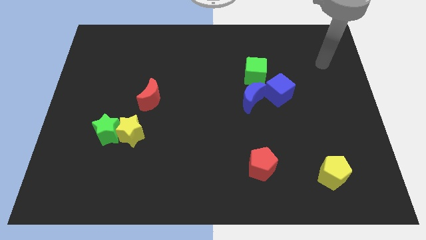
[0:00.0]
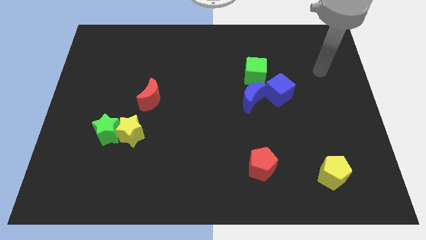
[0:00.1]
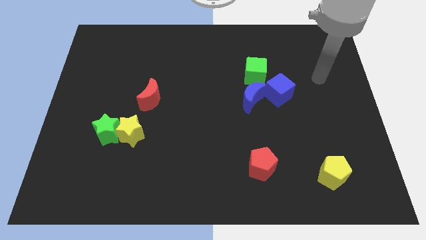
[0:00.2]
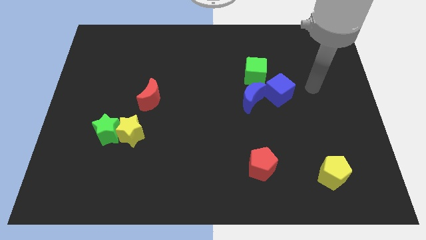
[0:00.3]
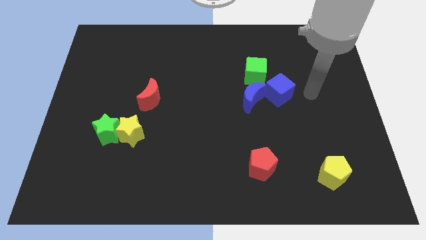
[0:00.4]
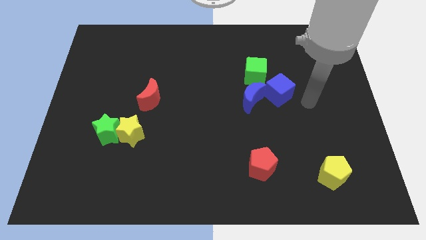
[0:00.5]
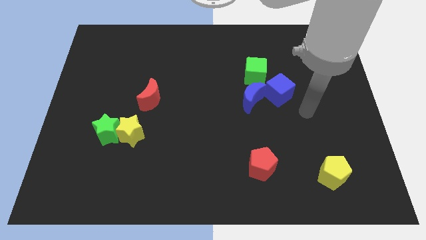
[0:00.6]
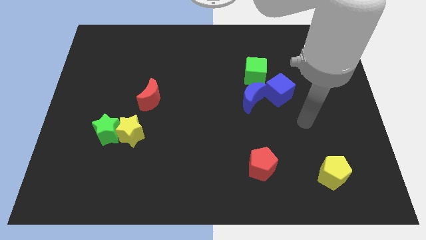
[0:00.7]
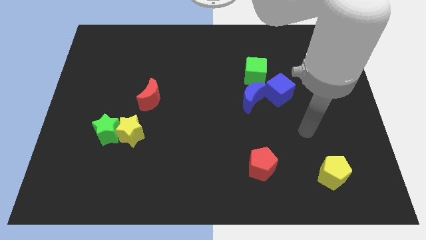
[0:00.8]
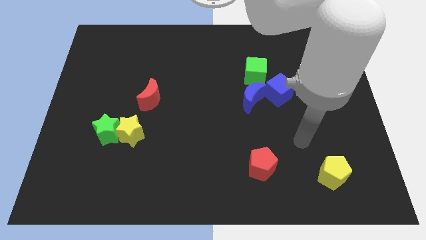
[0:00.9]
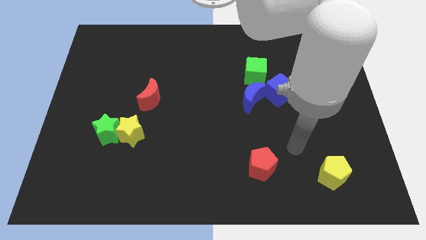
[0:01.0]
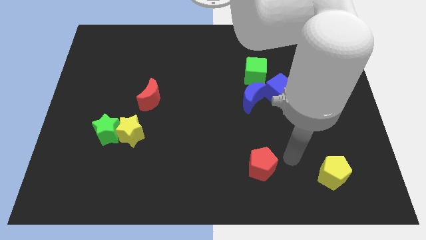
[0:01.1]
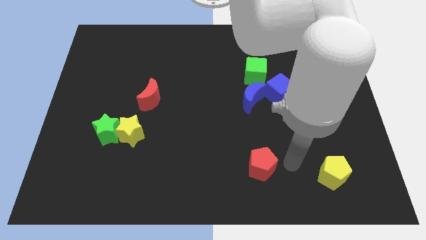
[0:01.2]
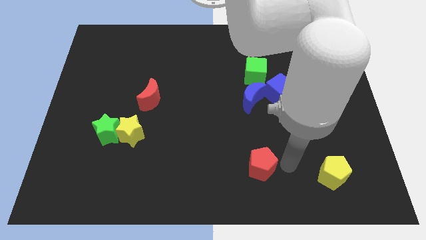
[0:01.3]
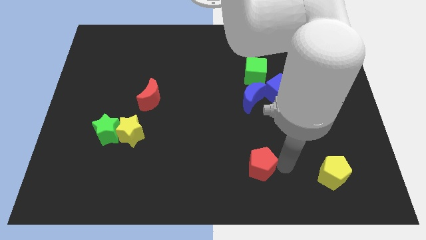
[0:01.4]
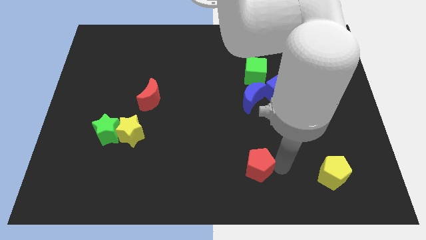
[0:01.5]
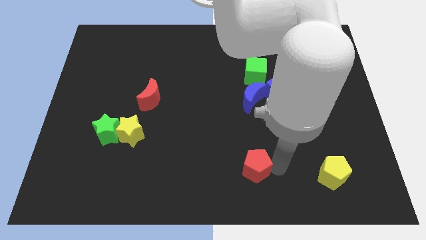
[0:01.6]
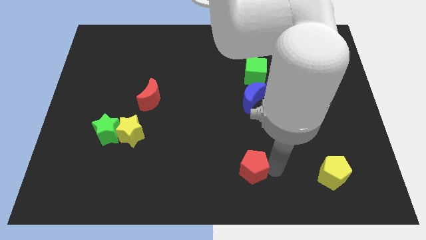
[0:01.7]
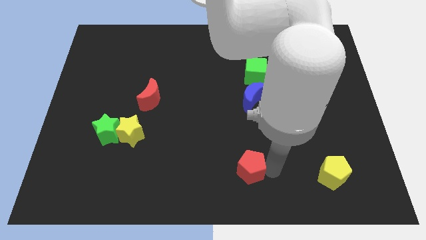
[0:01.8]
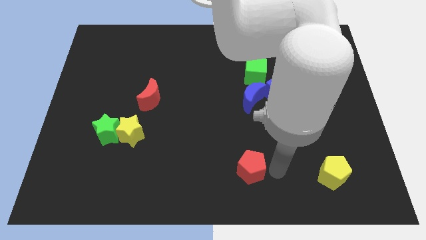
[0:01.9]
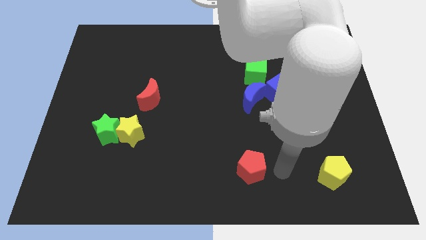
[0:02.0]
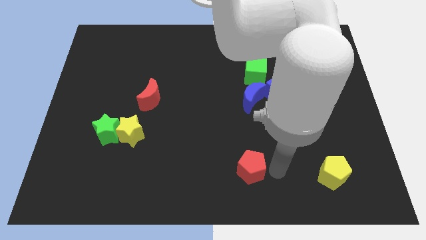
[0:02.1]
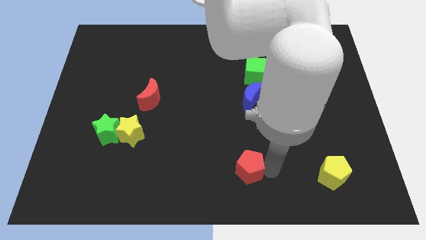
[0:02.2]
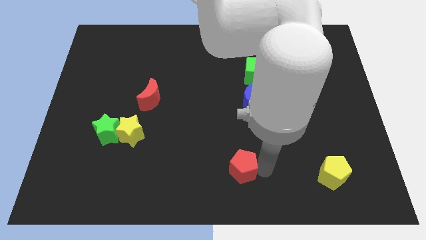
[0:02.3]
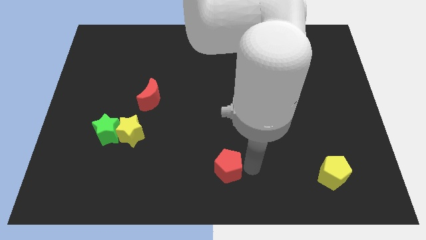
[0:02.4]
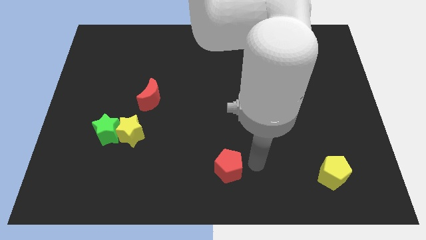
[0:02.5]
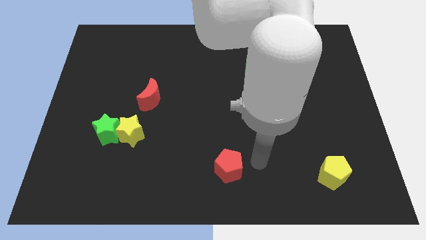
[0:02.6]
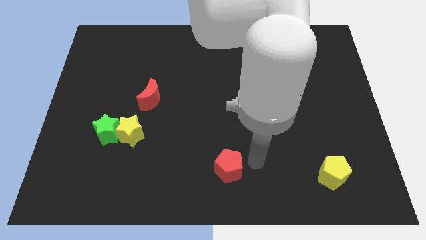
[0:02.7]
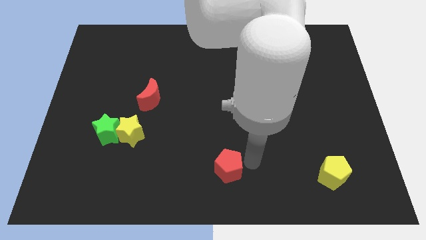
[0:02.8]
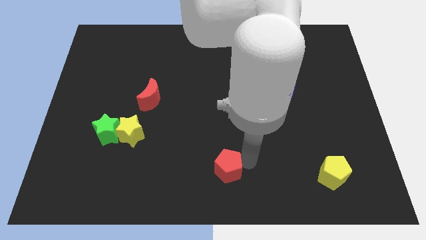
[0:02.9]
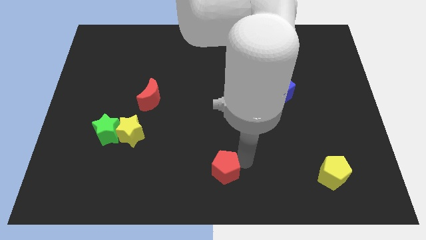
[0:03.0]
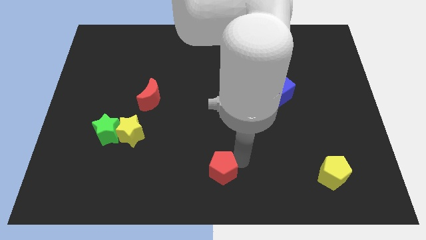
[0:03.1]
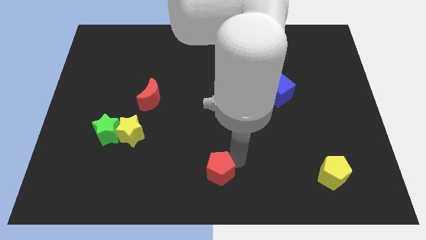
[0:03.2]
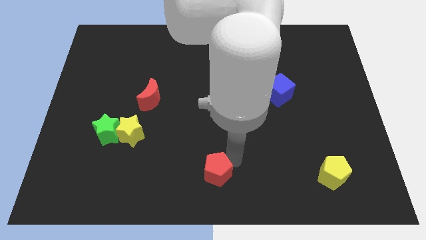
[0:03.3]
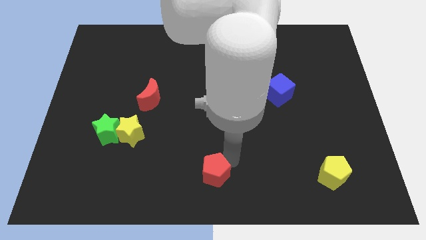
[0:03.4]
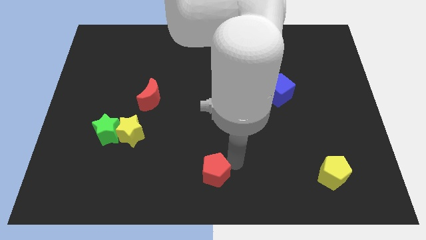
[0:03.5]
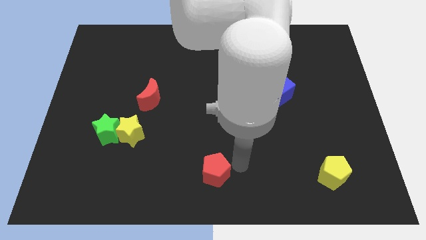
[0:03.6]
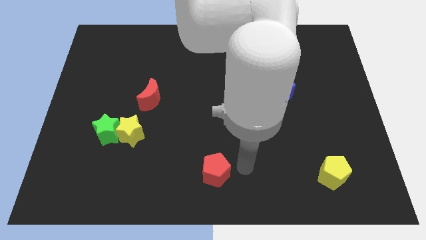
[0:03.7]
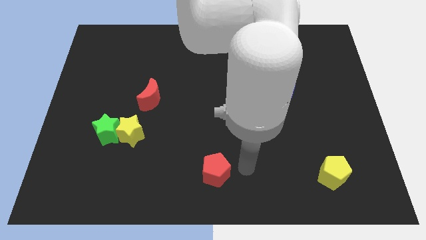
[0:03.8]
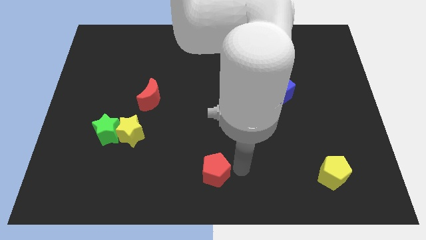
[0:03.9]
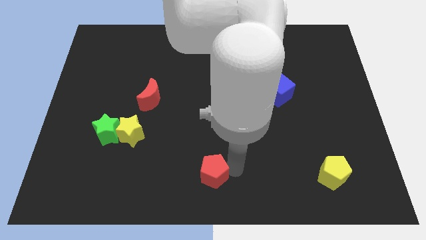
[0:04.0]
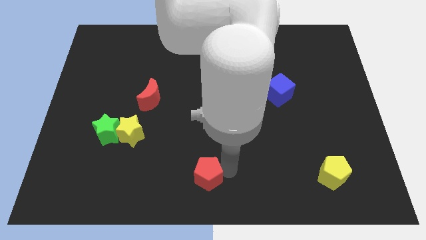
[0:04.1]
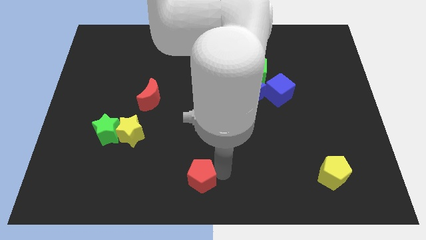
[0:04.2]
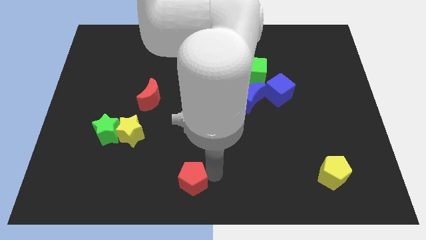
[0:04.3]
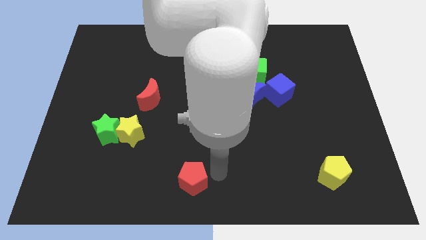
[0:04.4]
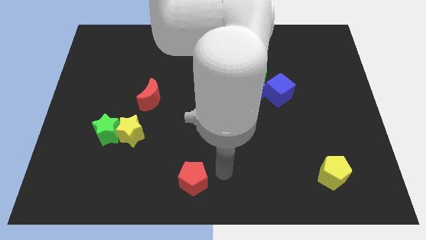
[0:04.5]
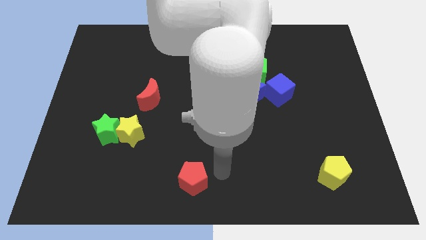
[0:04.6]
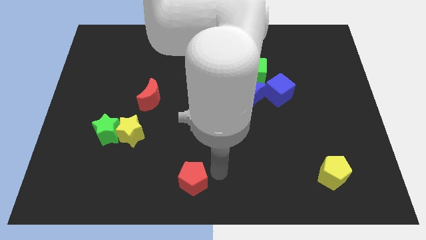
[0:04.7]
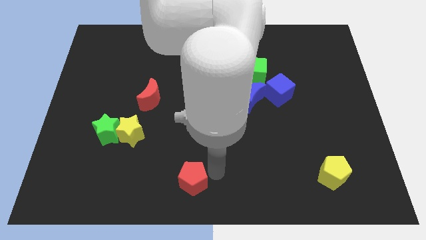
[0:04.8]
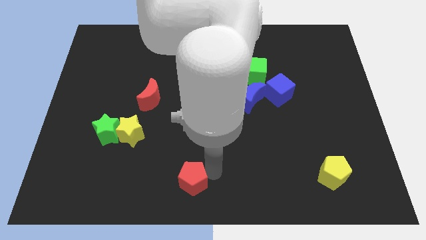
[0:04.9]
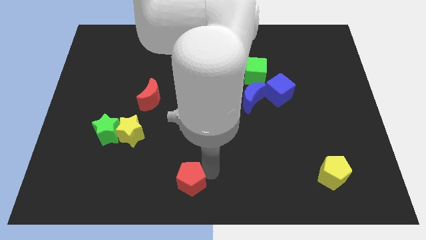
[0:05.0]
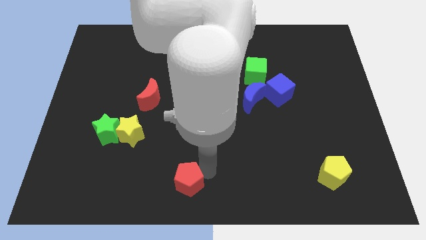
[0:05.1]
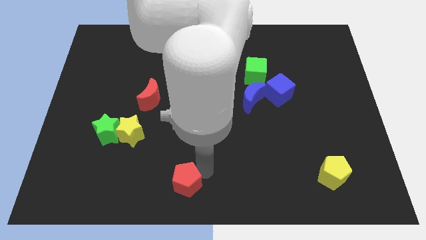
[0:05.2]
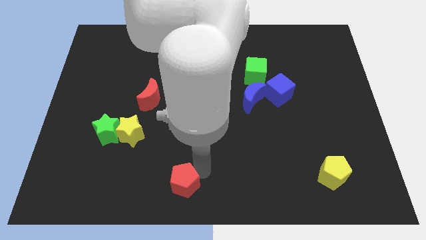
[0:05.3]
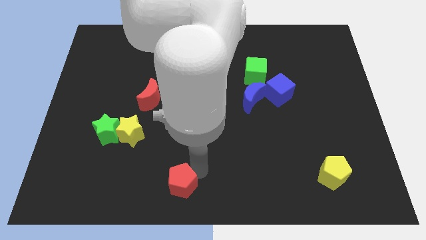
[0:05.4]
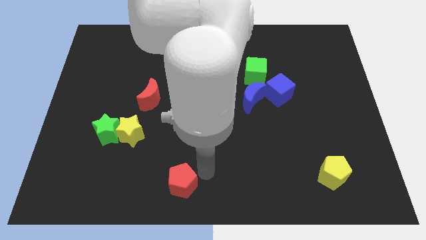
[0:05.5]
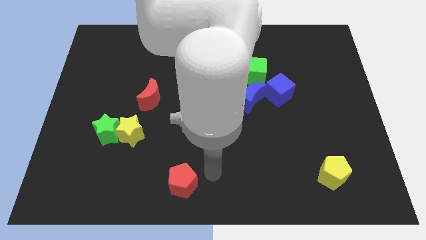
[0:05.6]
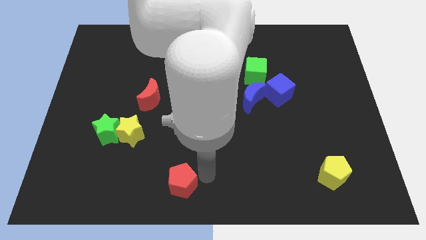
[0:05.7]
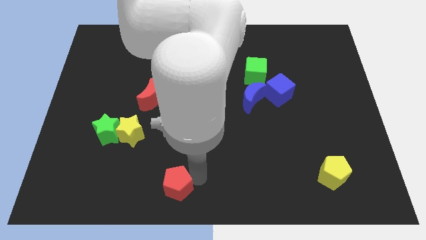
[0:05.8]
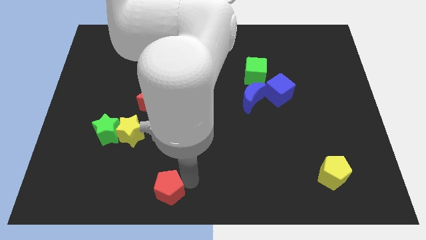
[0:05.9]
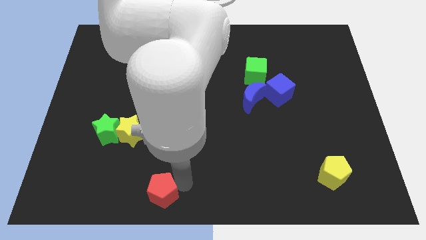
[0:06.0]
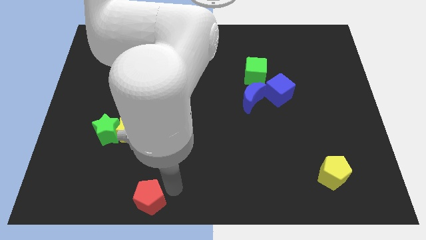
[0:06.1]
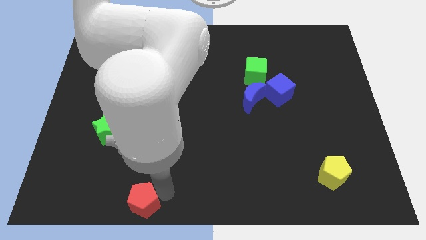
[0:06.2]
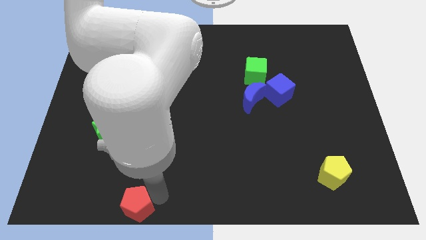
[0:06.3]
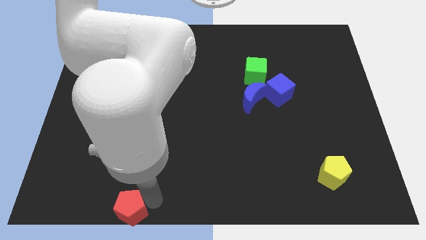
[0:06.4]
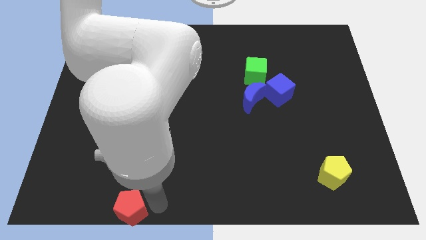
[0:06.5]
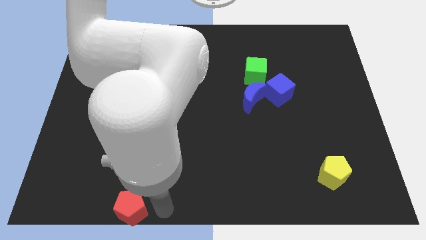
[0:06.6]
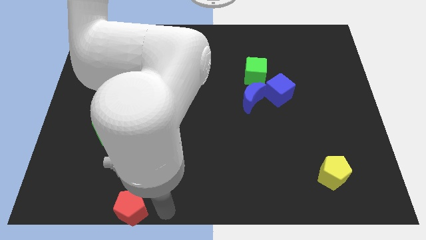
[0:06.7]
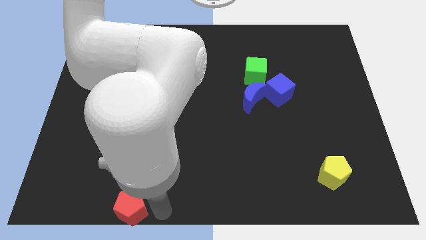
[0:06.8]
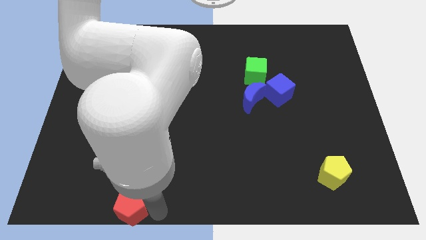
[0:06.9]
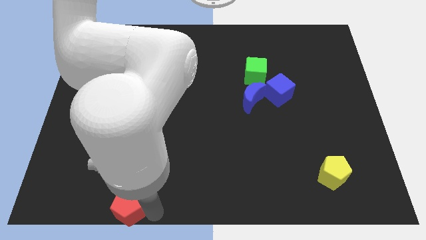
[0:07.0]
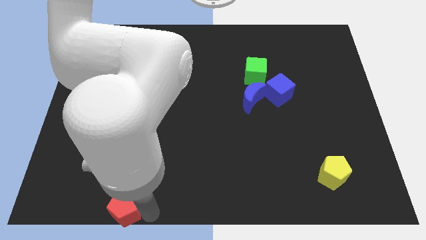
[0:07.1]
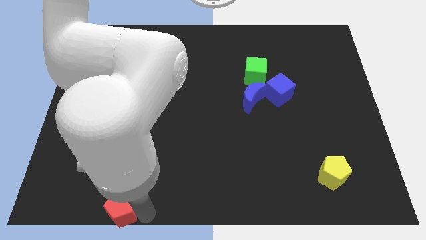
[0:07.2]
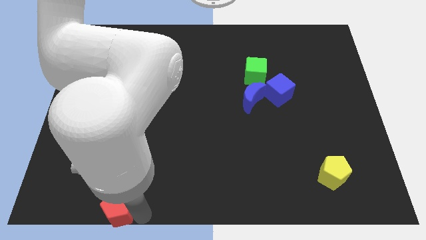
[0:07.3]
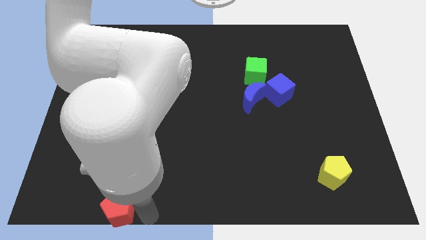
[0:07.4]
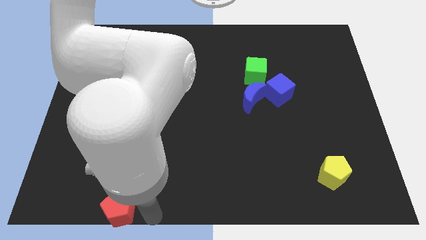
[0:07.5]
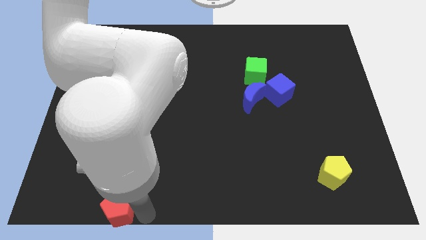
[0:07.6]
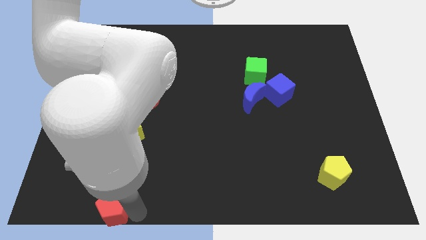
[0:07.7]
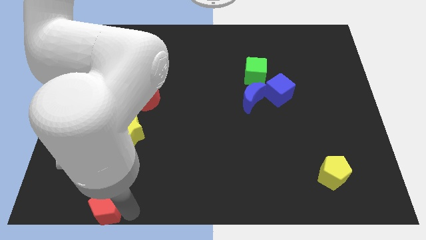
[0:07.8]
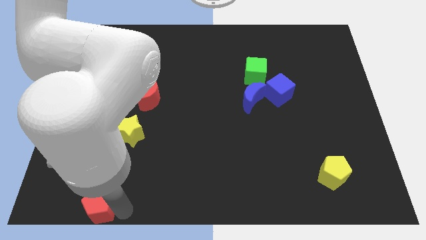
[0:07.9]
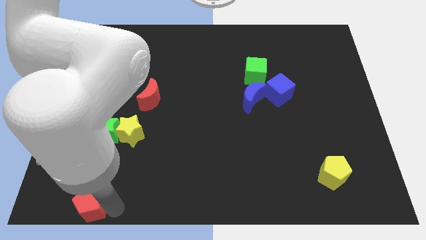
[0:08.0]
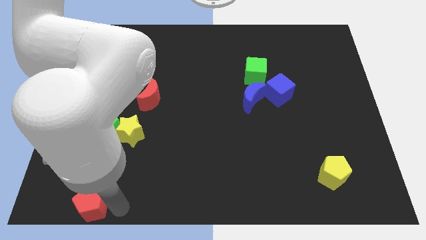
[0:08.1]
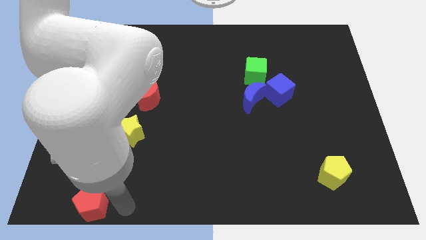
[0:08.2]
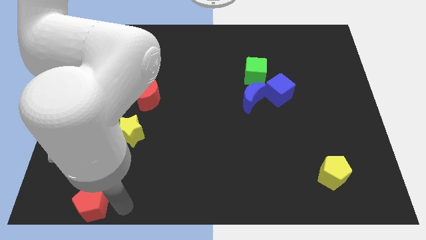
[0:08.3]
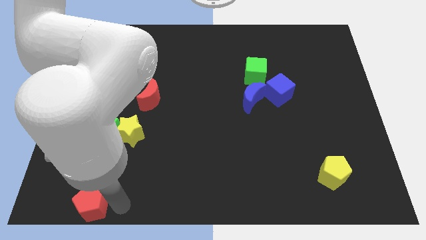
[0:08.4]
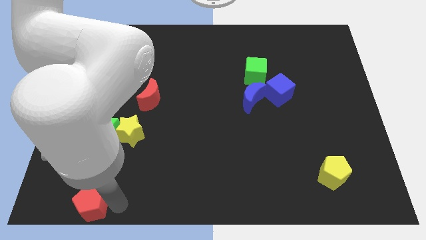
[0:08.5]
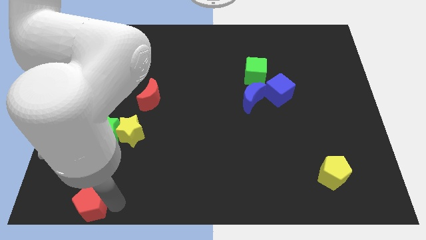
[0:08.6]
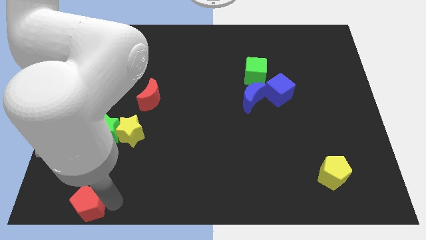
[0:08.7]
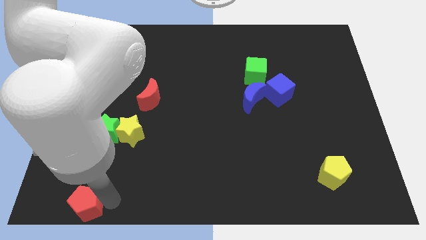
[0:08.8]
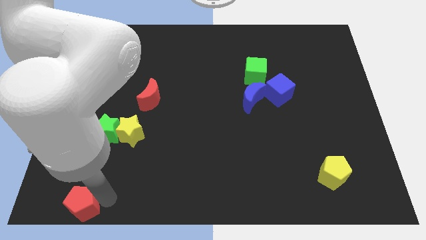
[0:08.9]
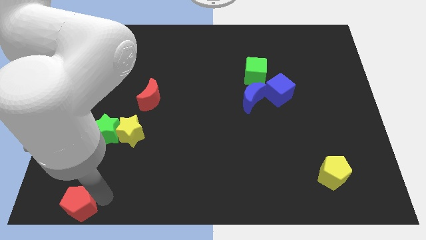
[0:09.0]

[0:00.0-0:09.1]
slide the red pentagon to the bottom left corner
